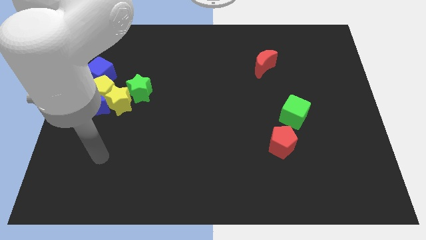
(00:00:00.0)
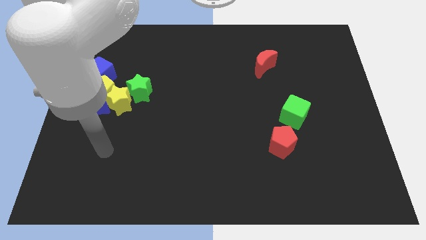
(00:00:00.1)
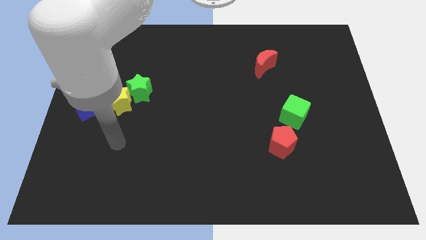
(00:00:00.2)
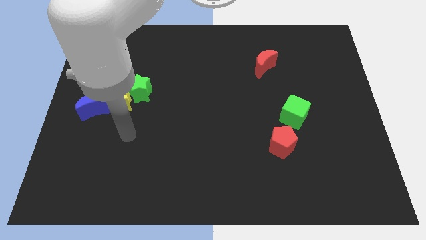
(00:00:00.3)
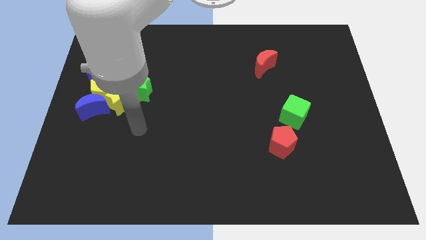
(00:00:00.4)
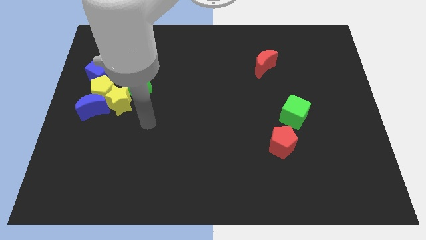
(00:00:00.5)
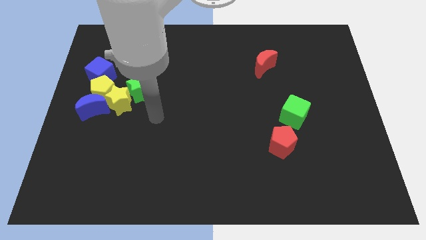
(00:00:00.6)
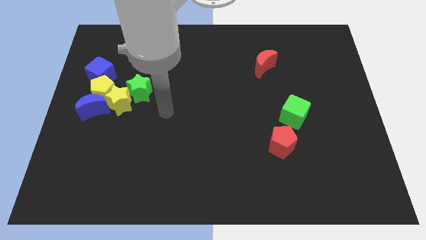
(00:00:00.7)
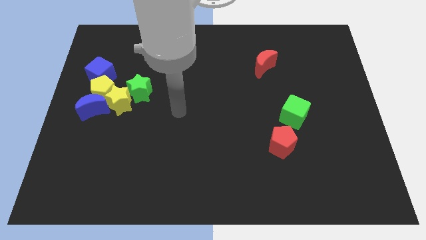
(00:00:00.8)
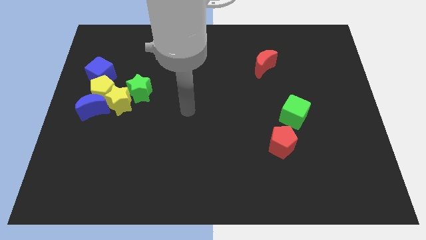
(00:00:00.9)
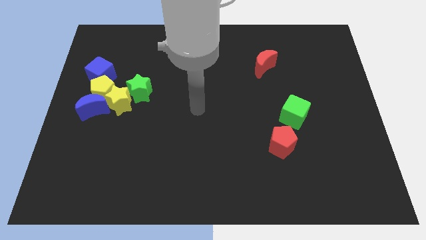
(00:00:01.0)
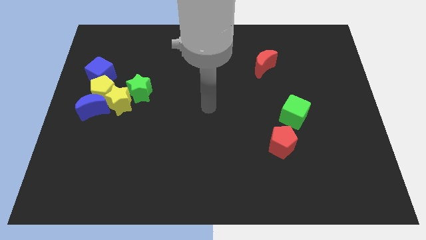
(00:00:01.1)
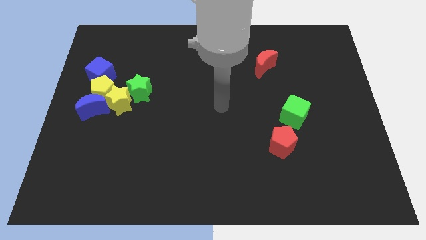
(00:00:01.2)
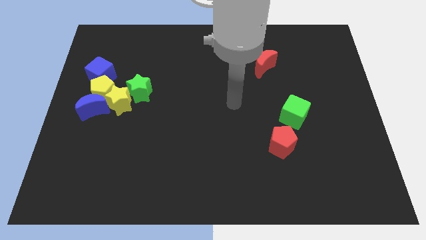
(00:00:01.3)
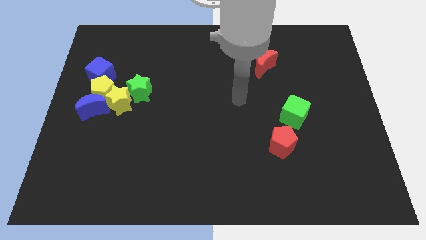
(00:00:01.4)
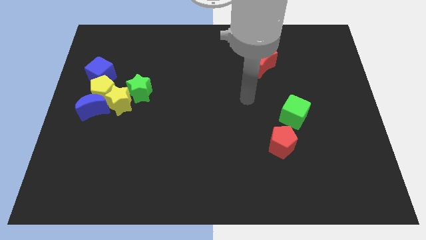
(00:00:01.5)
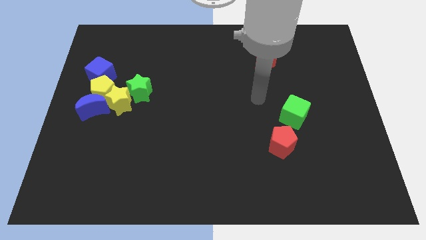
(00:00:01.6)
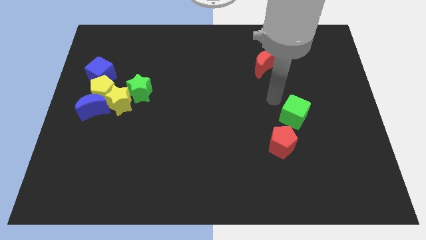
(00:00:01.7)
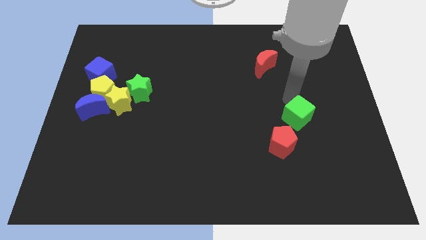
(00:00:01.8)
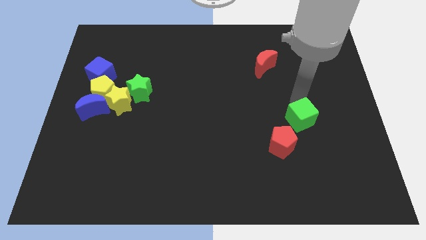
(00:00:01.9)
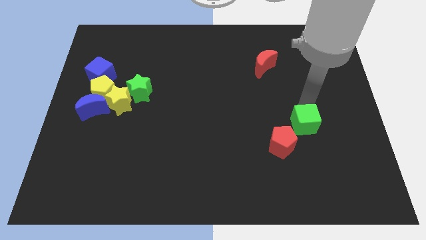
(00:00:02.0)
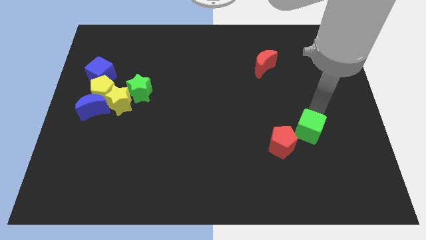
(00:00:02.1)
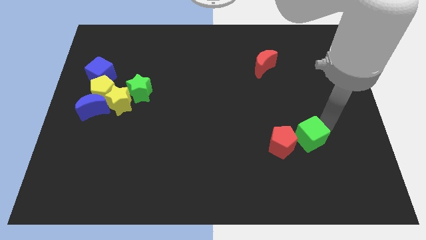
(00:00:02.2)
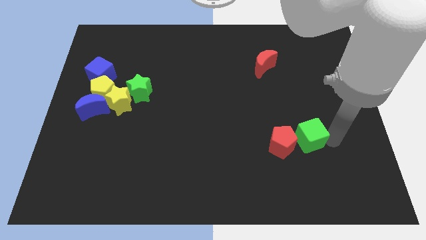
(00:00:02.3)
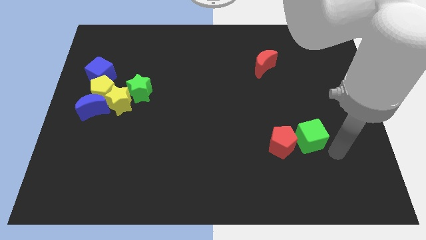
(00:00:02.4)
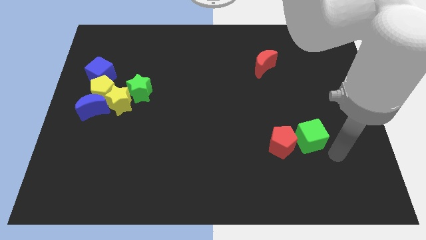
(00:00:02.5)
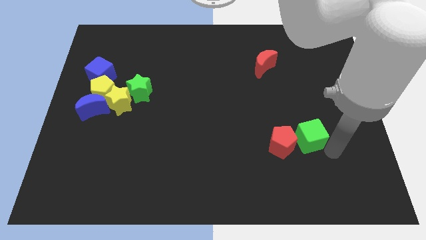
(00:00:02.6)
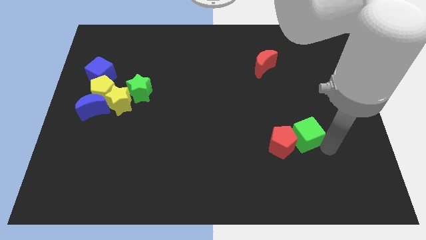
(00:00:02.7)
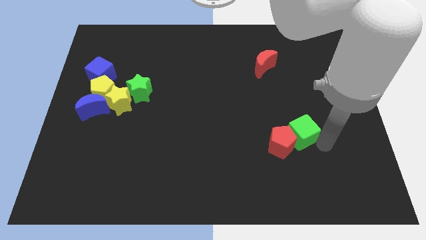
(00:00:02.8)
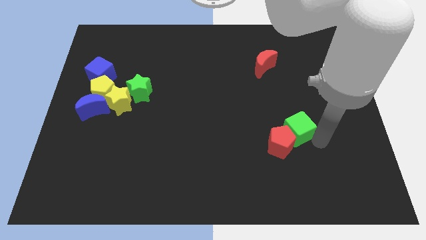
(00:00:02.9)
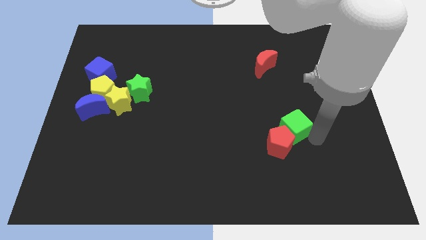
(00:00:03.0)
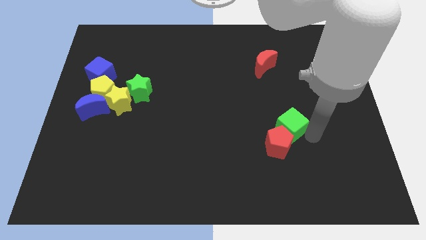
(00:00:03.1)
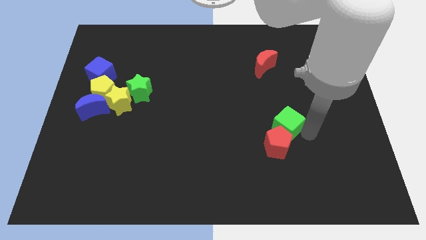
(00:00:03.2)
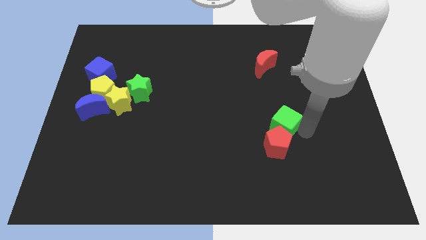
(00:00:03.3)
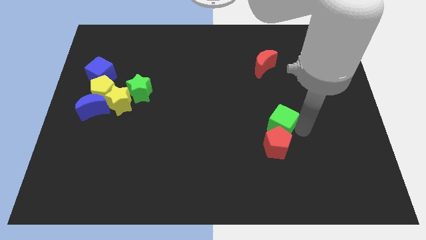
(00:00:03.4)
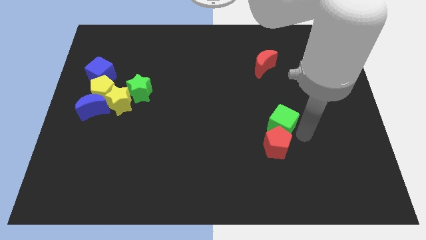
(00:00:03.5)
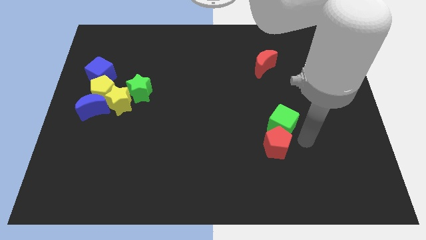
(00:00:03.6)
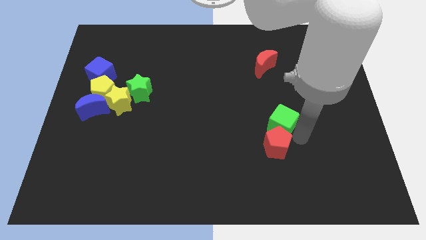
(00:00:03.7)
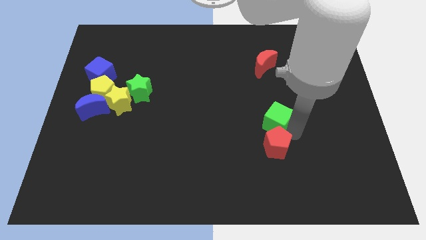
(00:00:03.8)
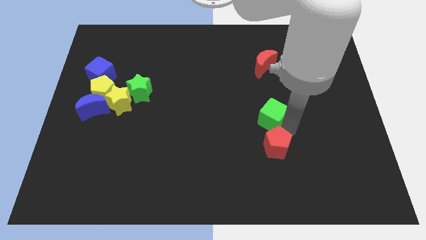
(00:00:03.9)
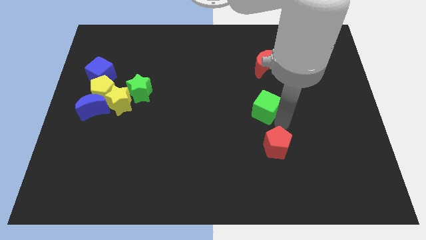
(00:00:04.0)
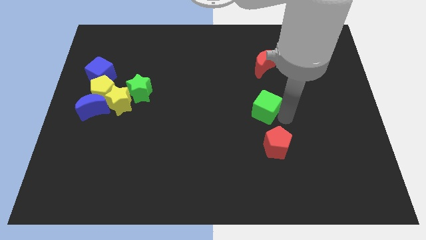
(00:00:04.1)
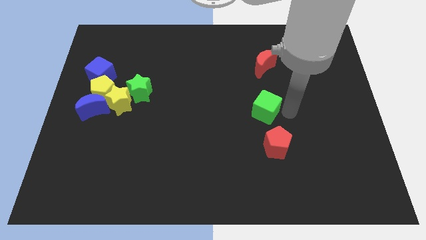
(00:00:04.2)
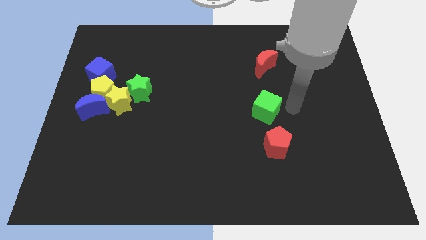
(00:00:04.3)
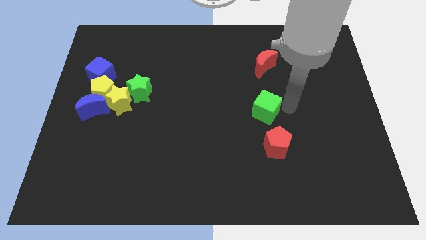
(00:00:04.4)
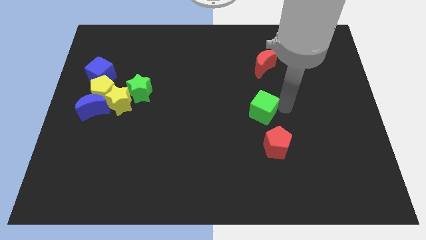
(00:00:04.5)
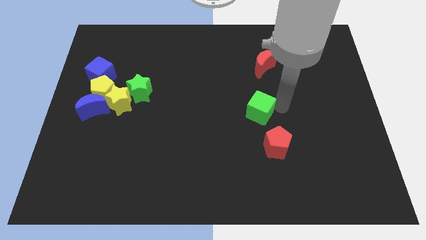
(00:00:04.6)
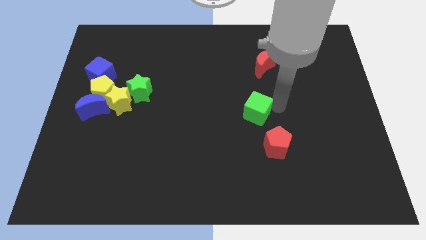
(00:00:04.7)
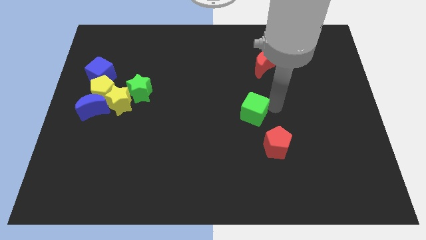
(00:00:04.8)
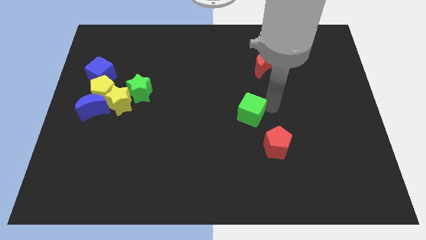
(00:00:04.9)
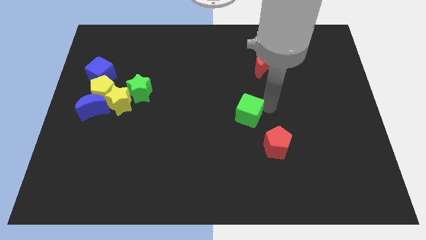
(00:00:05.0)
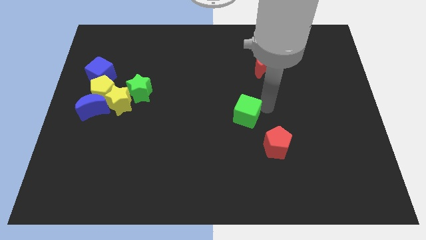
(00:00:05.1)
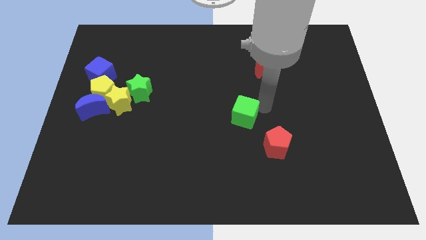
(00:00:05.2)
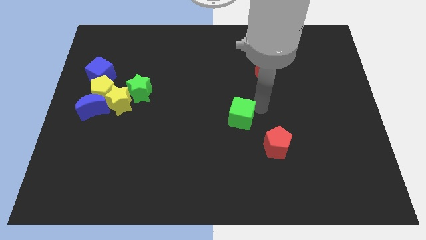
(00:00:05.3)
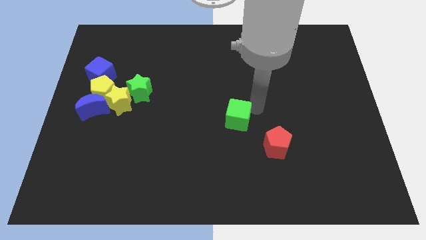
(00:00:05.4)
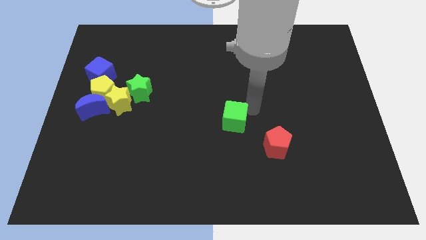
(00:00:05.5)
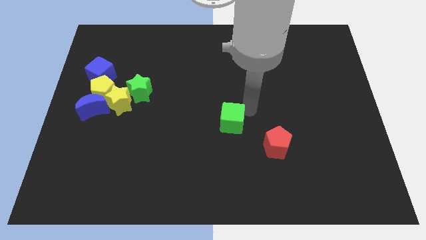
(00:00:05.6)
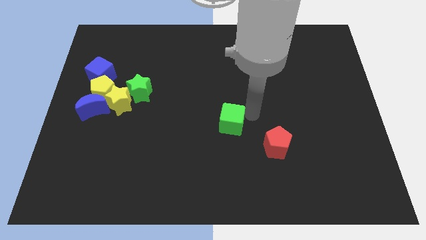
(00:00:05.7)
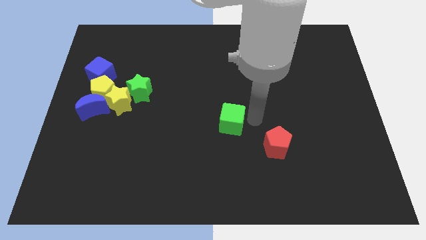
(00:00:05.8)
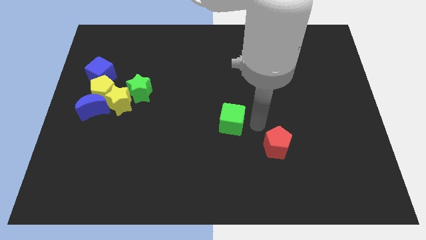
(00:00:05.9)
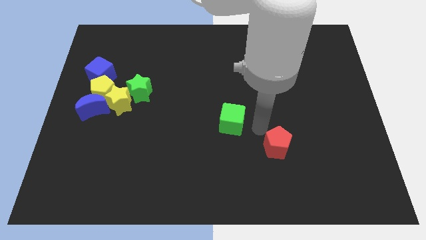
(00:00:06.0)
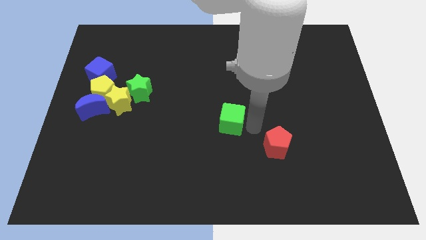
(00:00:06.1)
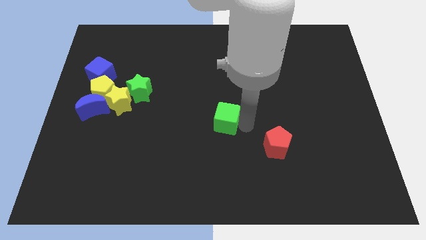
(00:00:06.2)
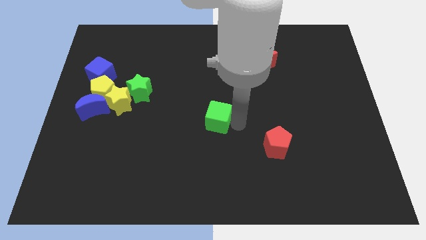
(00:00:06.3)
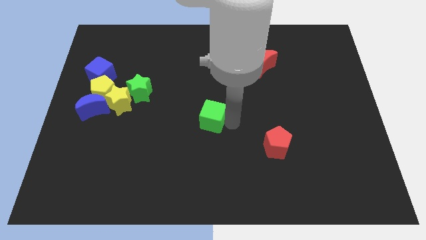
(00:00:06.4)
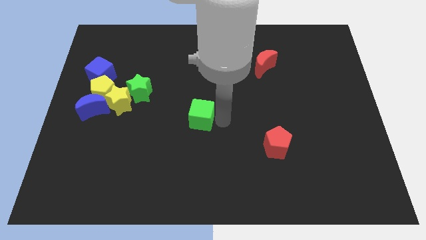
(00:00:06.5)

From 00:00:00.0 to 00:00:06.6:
push the green cube to the left

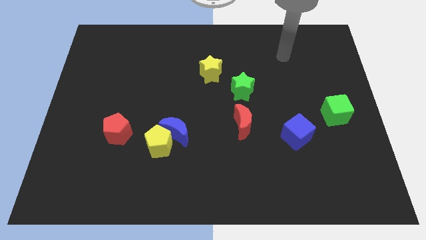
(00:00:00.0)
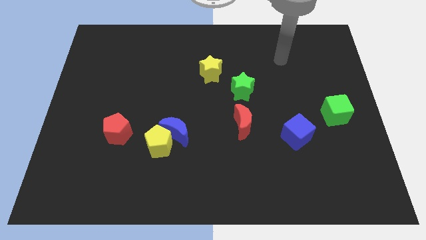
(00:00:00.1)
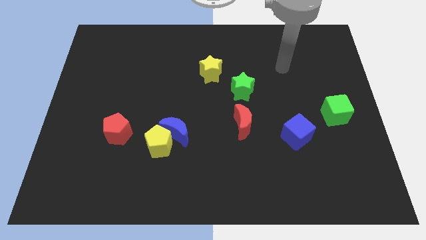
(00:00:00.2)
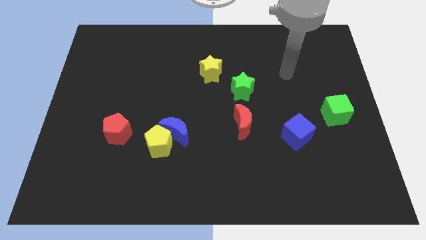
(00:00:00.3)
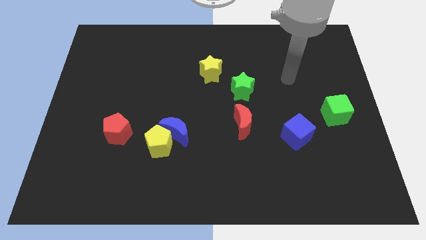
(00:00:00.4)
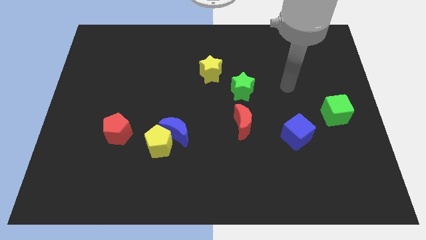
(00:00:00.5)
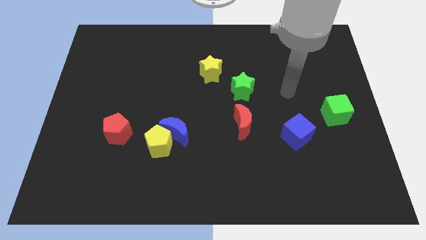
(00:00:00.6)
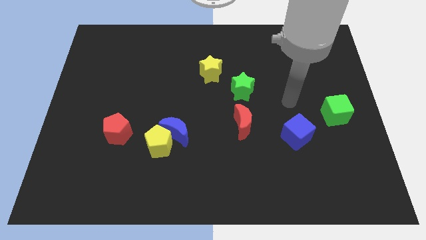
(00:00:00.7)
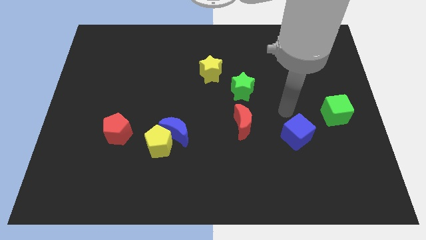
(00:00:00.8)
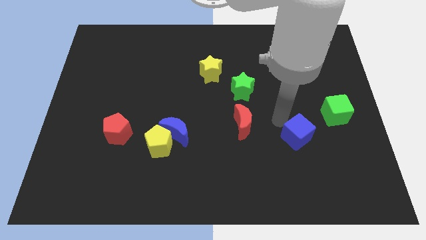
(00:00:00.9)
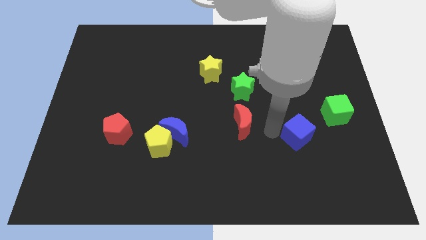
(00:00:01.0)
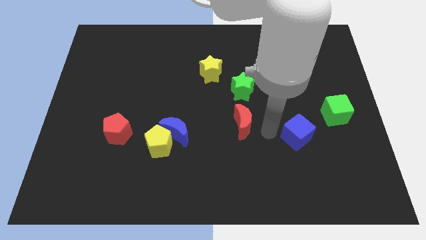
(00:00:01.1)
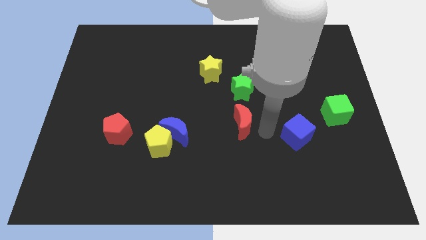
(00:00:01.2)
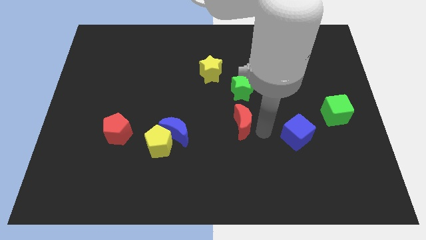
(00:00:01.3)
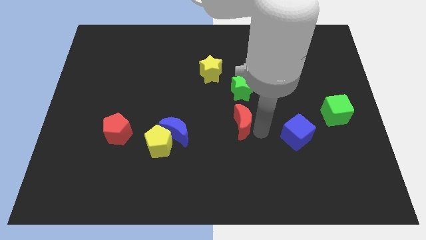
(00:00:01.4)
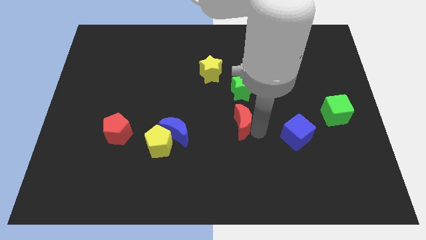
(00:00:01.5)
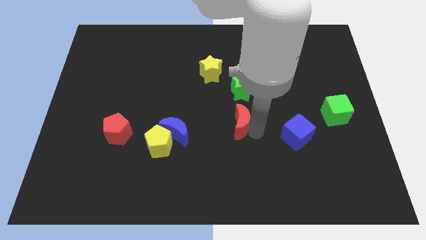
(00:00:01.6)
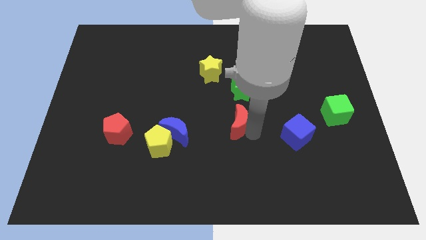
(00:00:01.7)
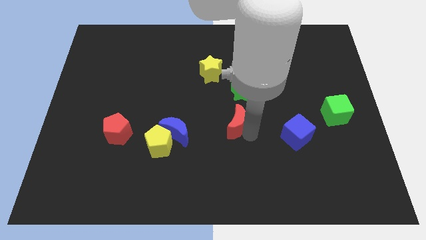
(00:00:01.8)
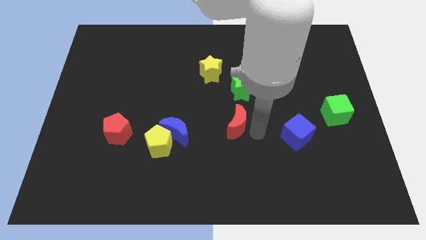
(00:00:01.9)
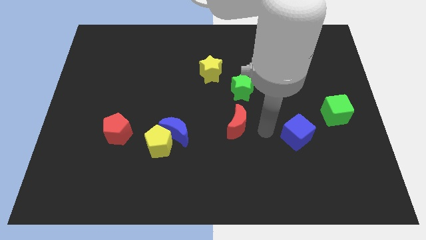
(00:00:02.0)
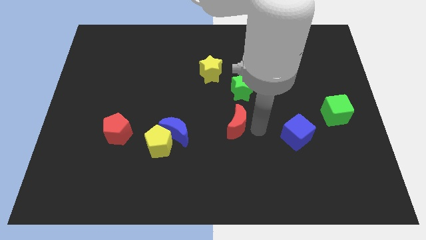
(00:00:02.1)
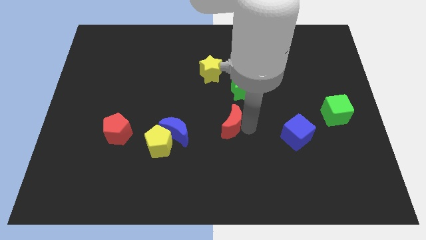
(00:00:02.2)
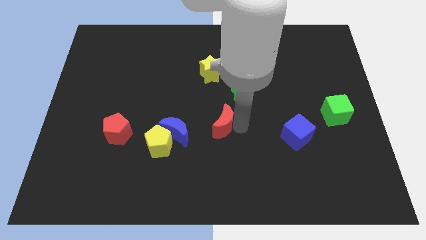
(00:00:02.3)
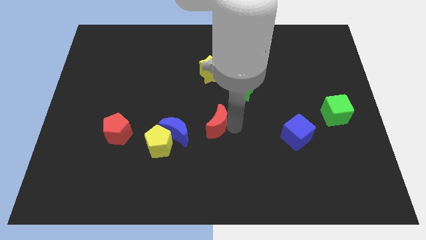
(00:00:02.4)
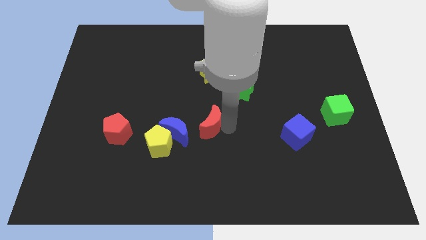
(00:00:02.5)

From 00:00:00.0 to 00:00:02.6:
move the red moon to the left a little bit
